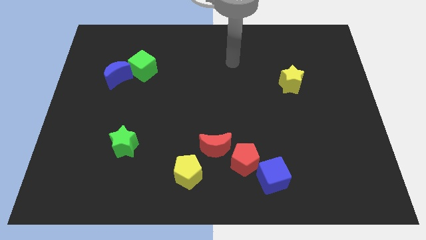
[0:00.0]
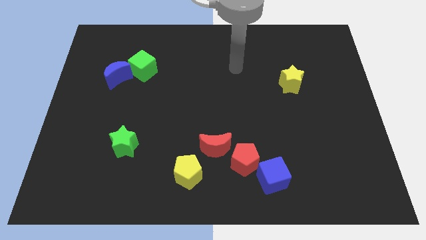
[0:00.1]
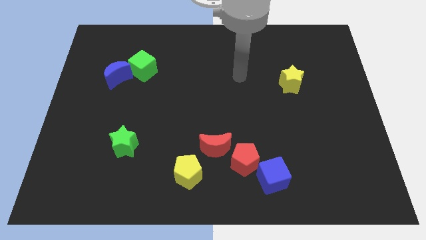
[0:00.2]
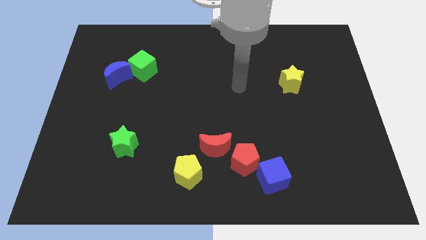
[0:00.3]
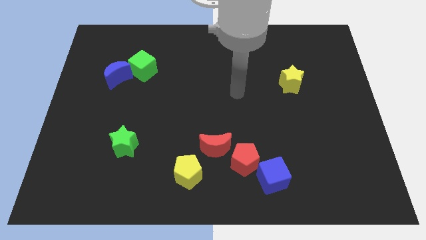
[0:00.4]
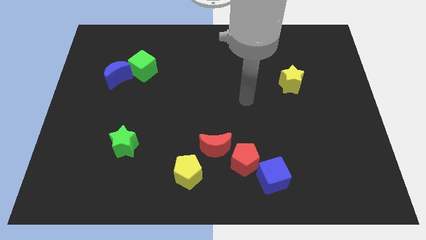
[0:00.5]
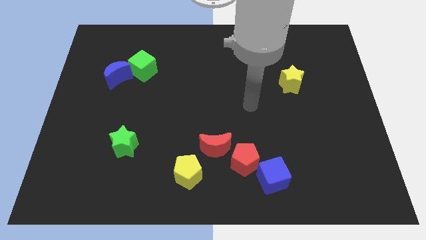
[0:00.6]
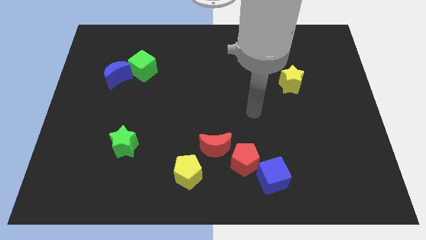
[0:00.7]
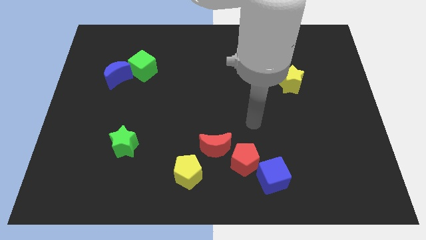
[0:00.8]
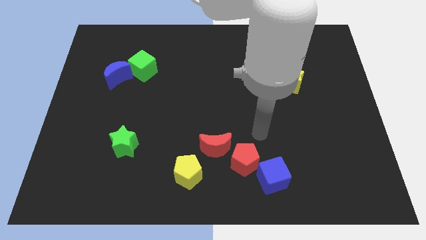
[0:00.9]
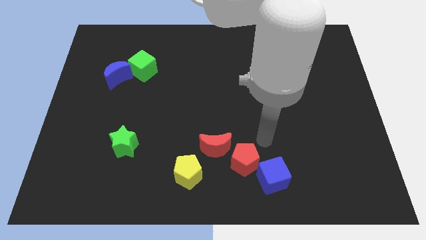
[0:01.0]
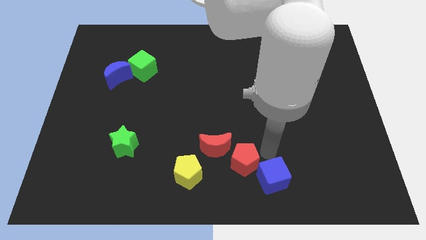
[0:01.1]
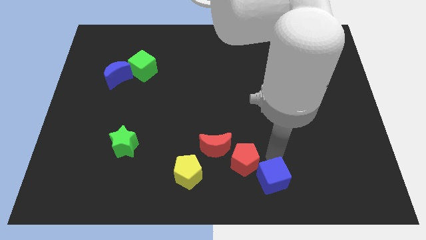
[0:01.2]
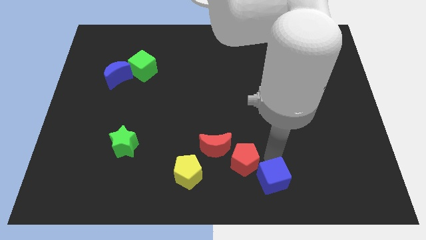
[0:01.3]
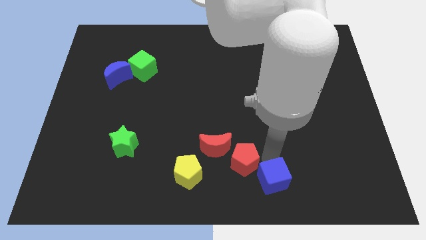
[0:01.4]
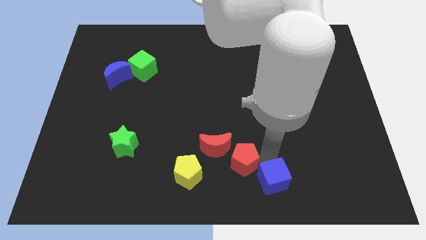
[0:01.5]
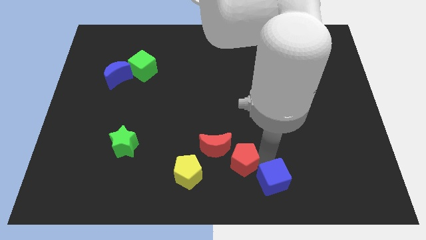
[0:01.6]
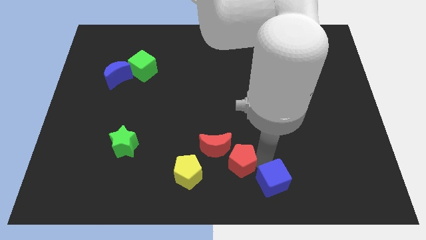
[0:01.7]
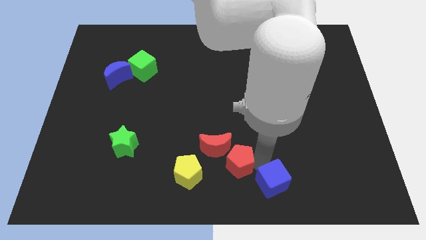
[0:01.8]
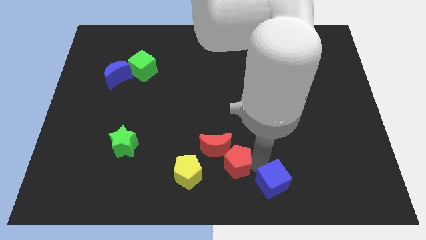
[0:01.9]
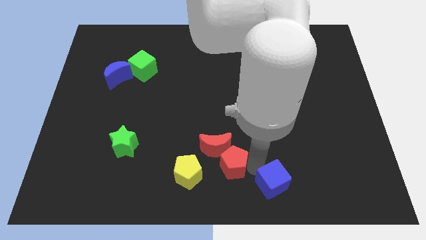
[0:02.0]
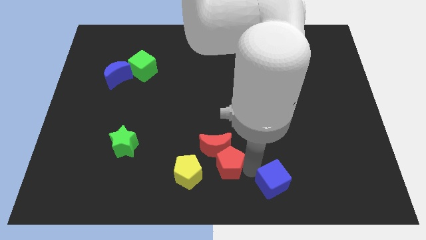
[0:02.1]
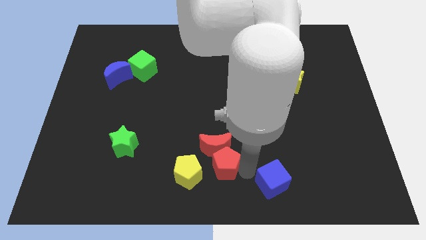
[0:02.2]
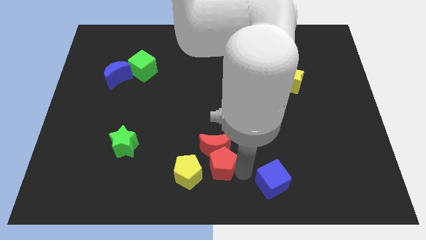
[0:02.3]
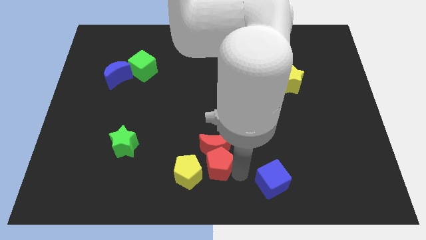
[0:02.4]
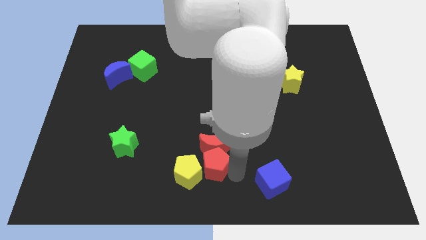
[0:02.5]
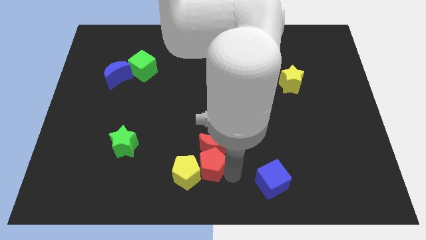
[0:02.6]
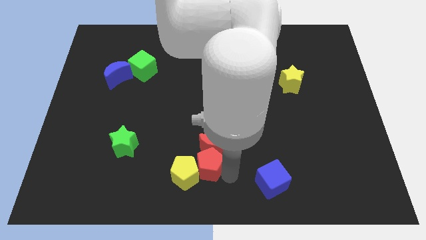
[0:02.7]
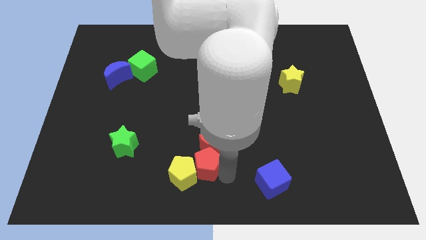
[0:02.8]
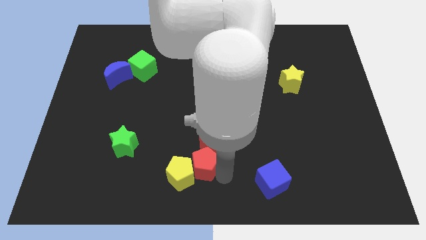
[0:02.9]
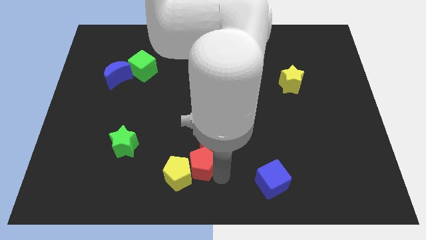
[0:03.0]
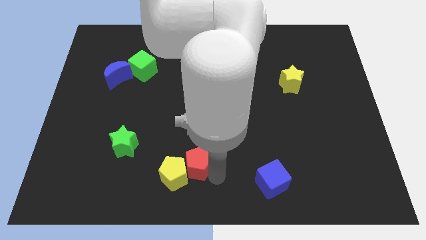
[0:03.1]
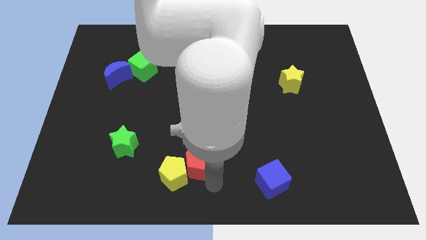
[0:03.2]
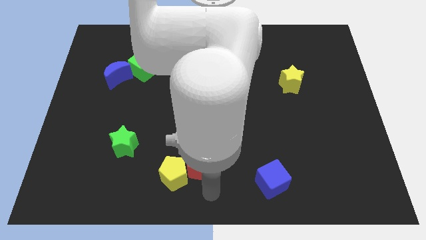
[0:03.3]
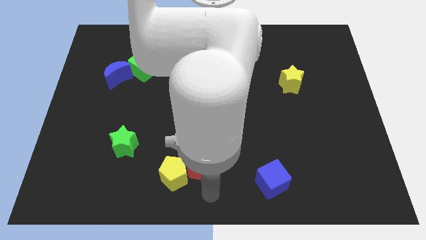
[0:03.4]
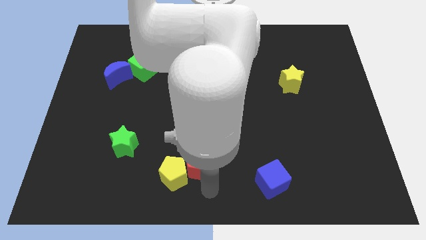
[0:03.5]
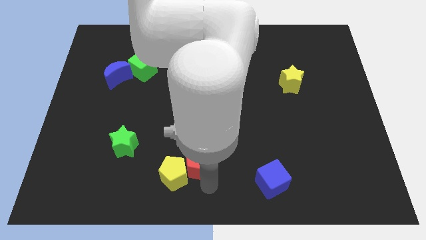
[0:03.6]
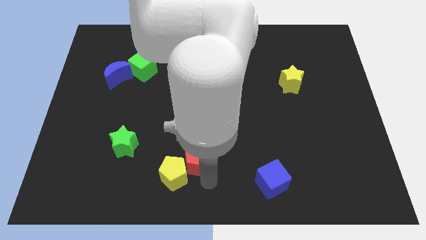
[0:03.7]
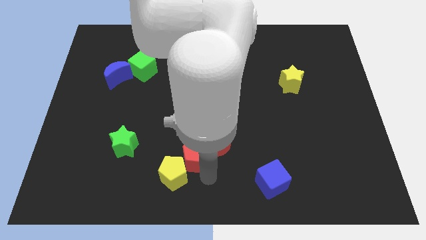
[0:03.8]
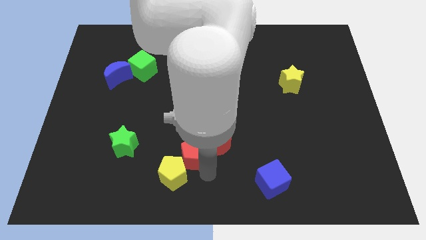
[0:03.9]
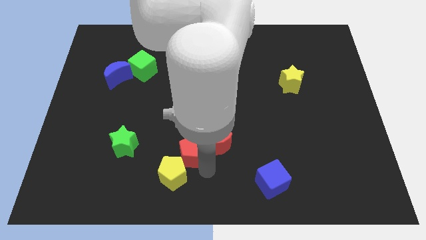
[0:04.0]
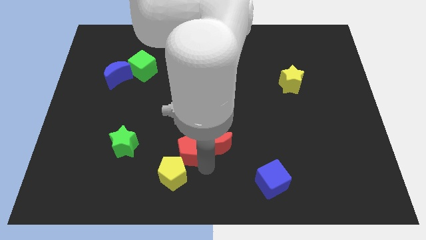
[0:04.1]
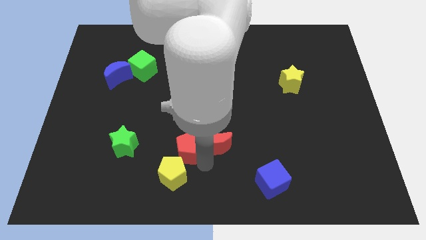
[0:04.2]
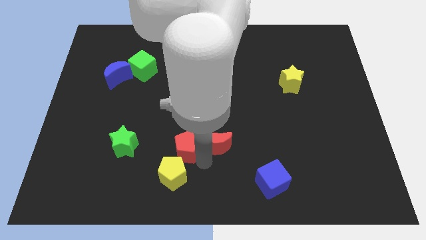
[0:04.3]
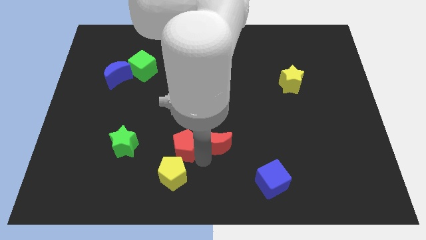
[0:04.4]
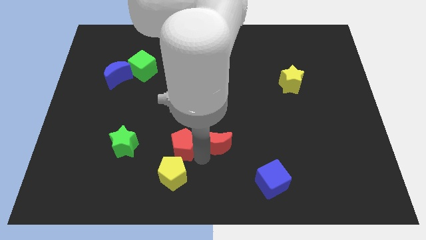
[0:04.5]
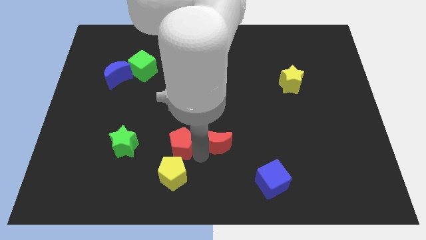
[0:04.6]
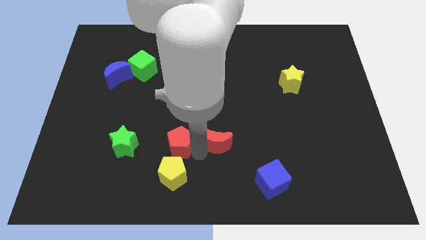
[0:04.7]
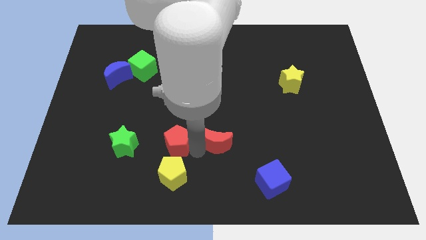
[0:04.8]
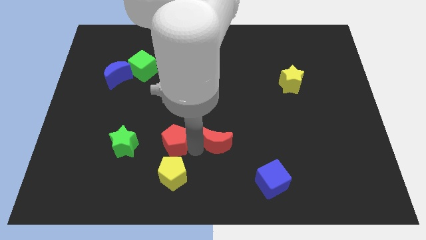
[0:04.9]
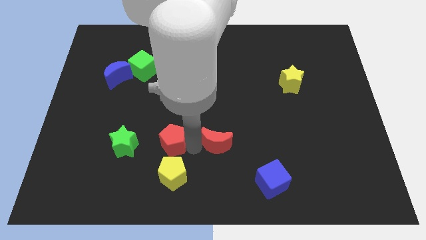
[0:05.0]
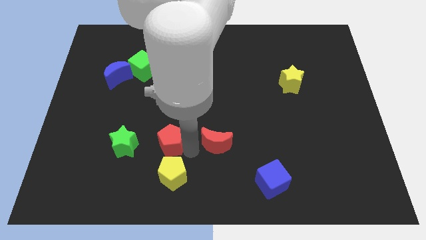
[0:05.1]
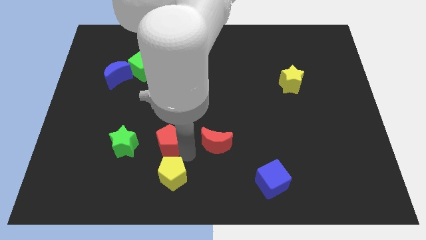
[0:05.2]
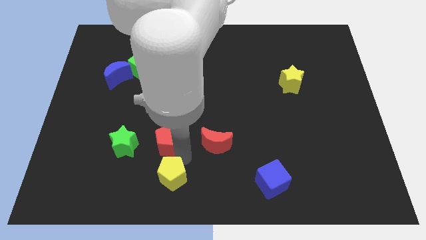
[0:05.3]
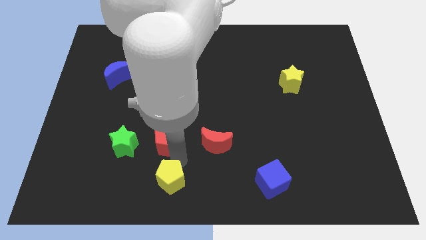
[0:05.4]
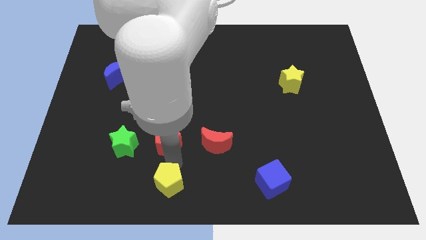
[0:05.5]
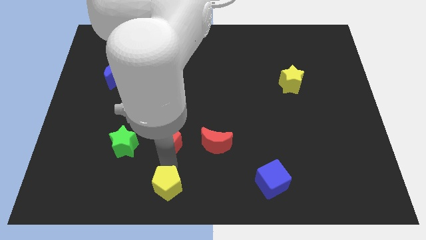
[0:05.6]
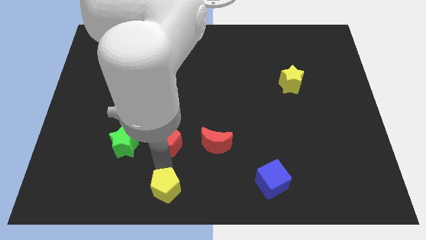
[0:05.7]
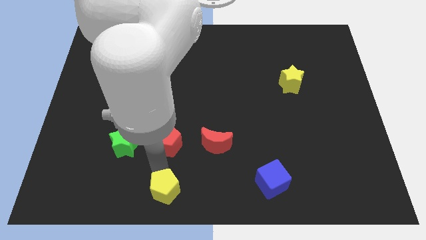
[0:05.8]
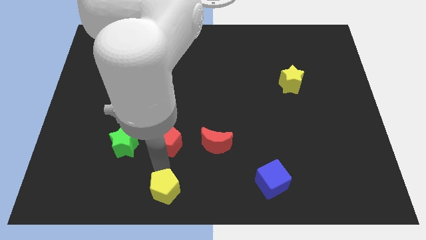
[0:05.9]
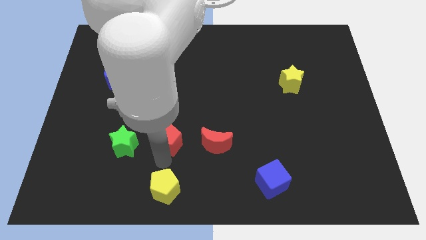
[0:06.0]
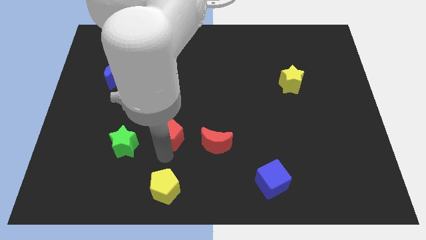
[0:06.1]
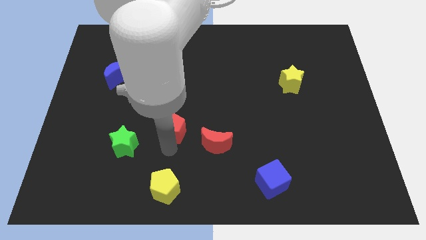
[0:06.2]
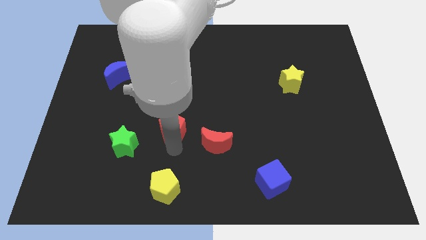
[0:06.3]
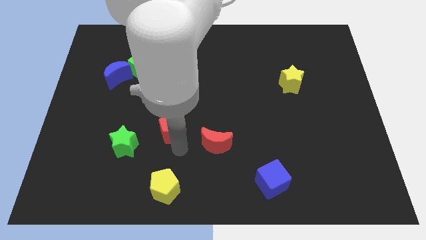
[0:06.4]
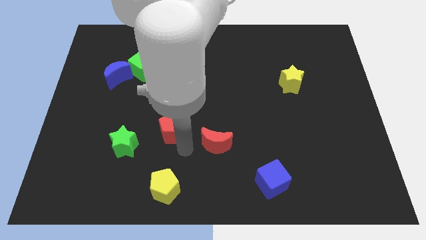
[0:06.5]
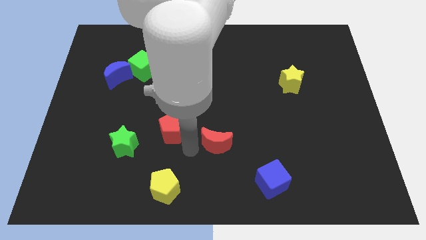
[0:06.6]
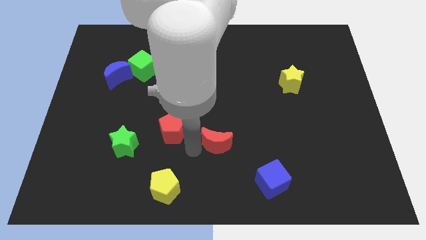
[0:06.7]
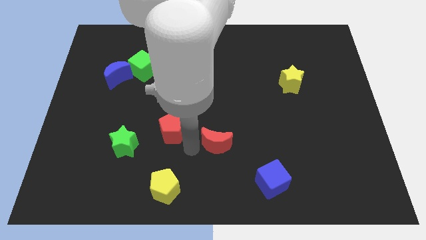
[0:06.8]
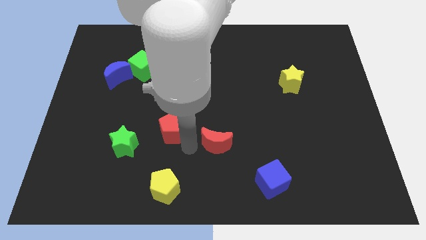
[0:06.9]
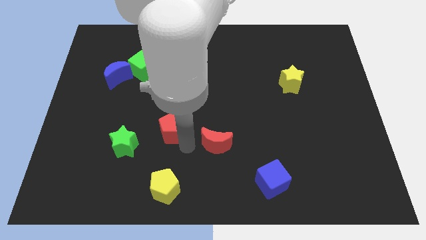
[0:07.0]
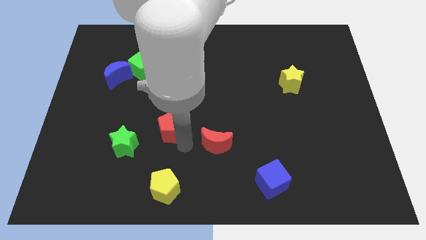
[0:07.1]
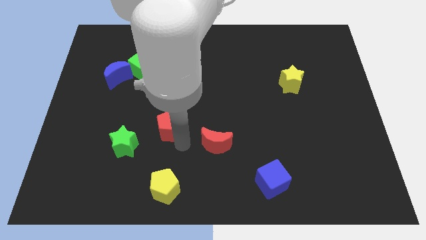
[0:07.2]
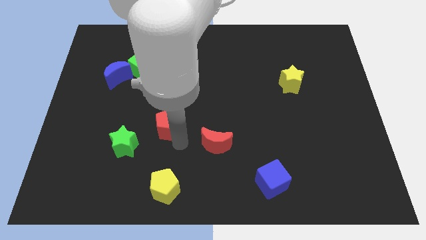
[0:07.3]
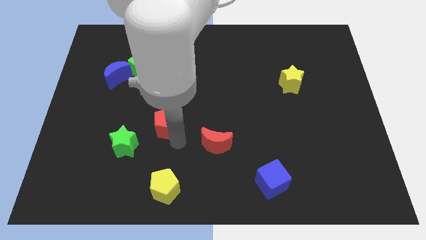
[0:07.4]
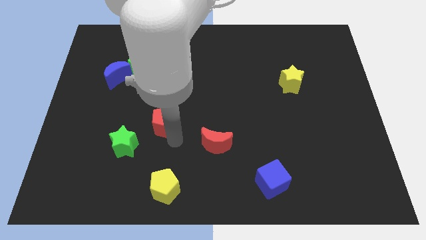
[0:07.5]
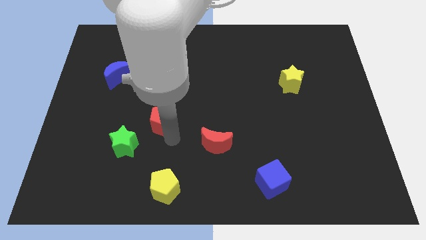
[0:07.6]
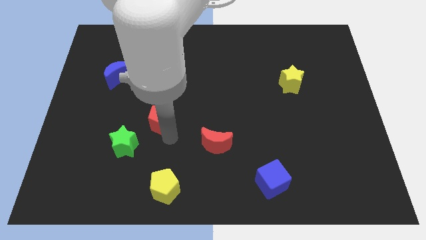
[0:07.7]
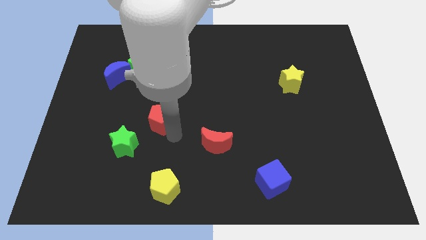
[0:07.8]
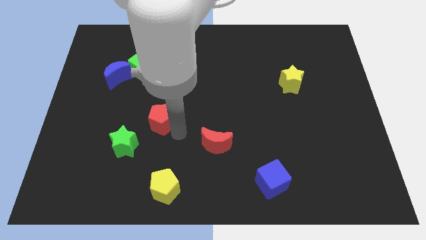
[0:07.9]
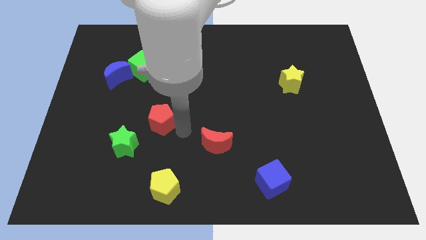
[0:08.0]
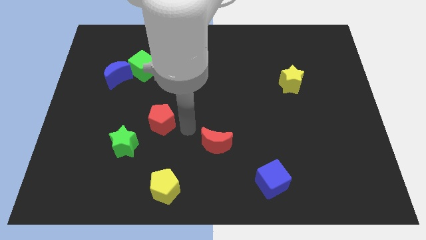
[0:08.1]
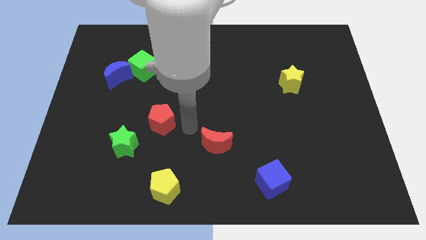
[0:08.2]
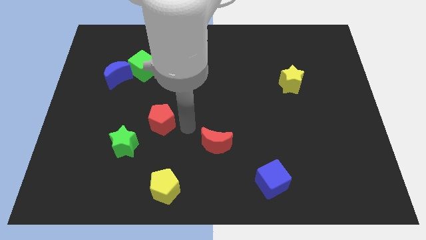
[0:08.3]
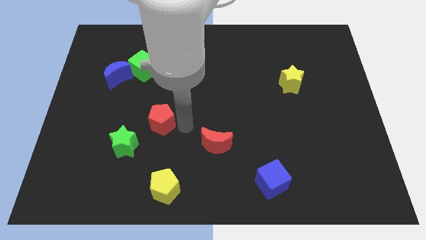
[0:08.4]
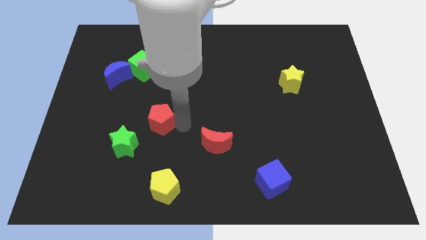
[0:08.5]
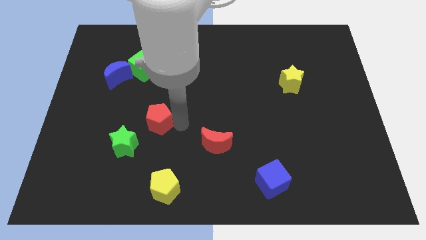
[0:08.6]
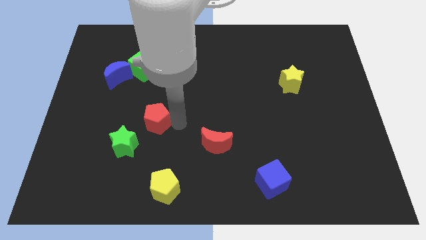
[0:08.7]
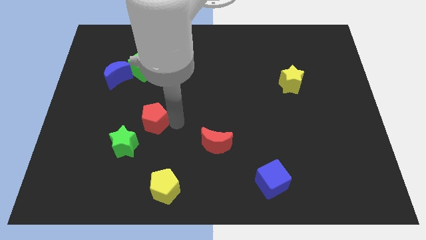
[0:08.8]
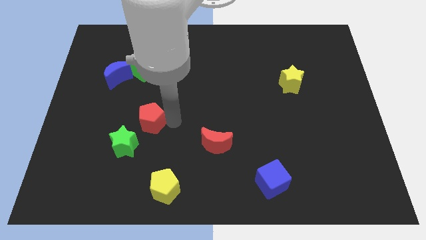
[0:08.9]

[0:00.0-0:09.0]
slide the red pentagon above the green star

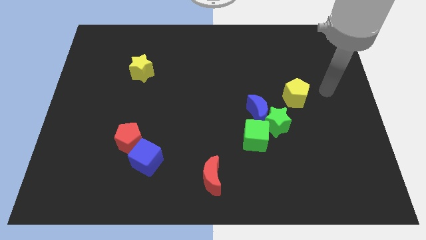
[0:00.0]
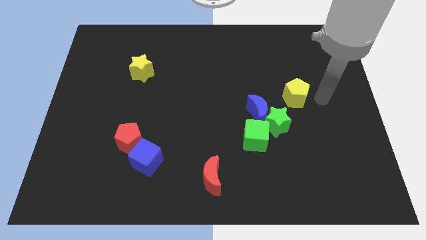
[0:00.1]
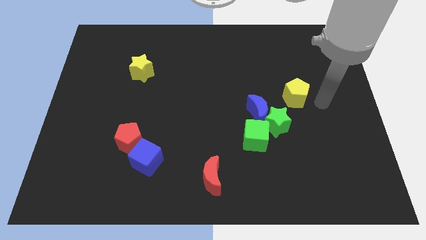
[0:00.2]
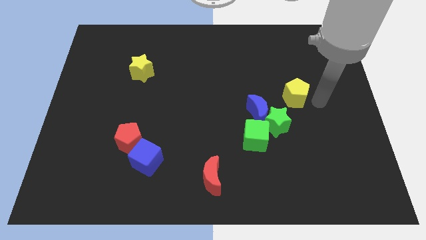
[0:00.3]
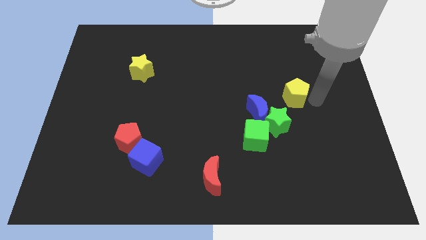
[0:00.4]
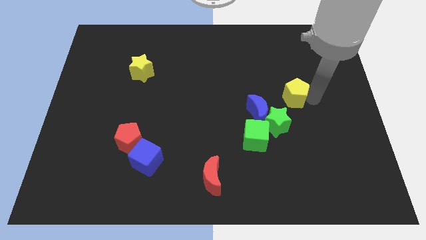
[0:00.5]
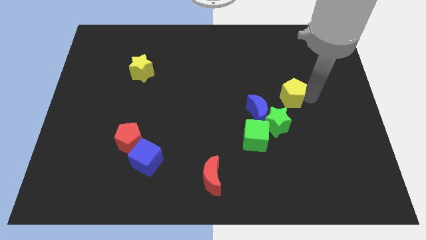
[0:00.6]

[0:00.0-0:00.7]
move the yellow pentagon to the top side of the green star
